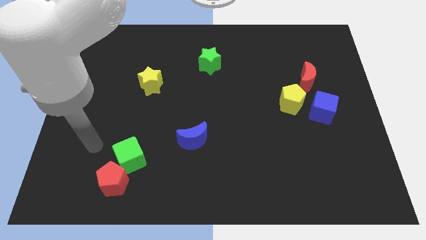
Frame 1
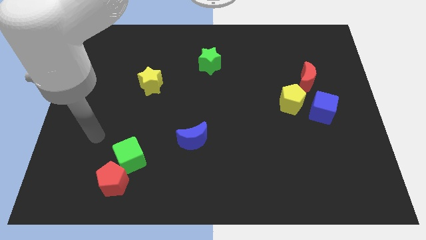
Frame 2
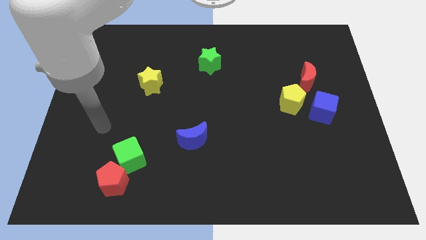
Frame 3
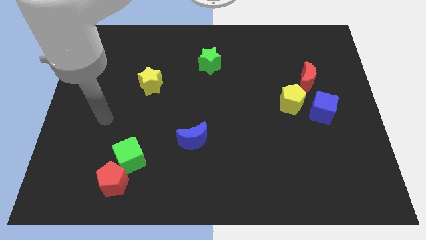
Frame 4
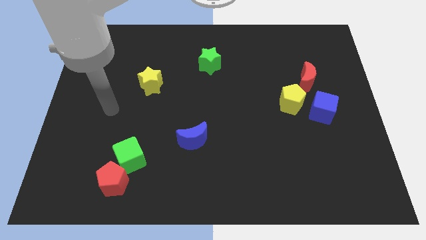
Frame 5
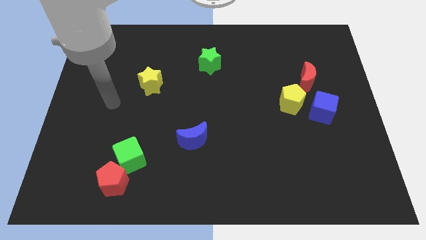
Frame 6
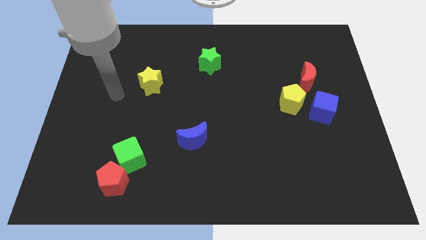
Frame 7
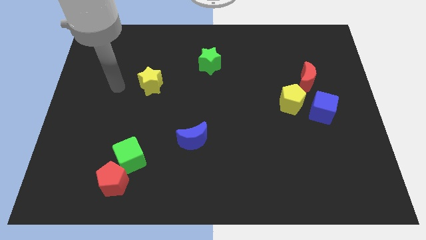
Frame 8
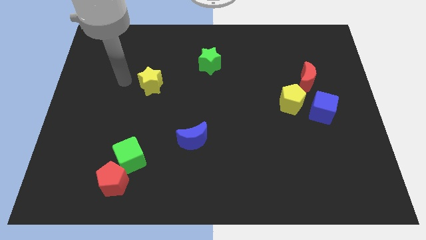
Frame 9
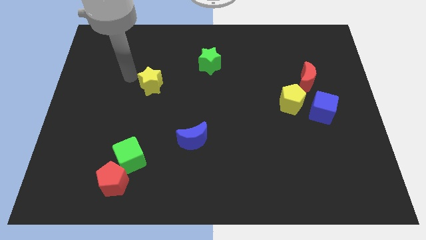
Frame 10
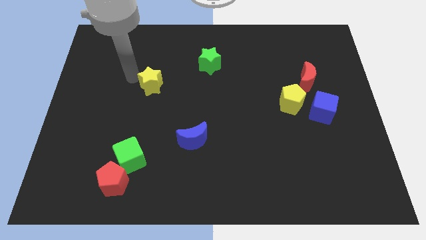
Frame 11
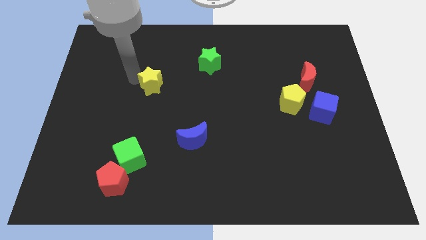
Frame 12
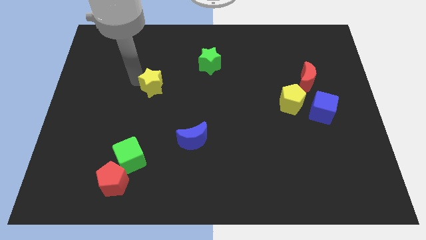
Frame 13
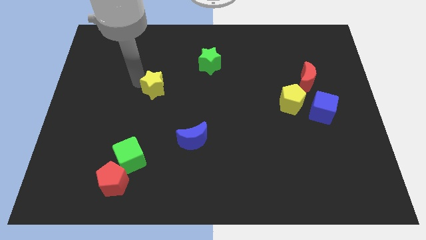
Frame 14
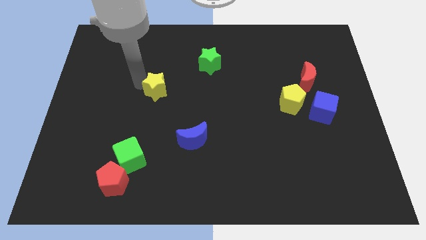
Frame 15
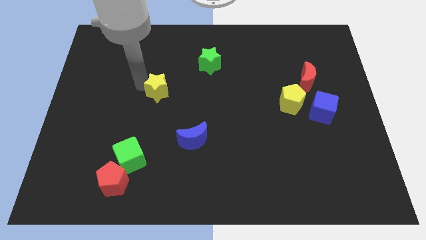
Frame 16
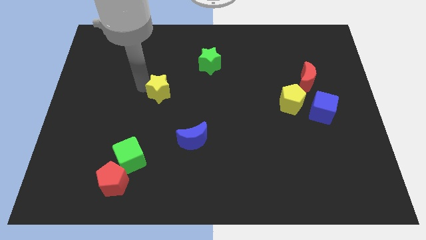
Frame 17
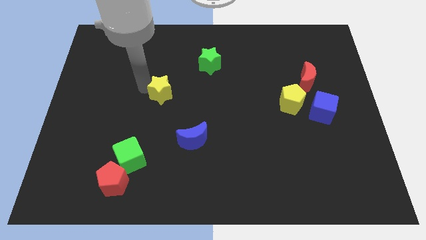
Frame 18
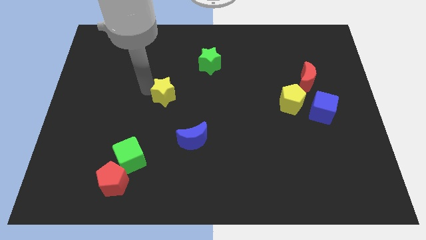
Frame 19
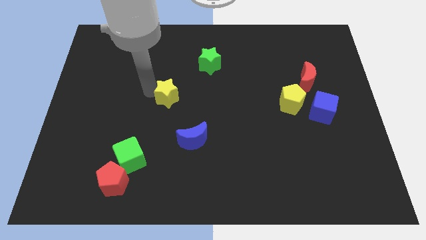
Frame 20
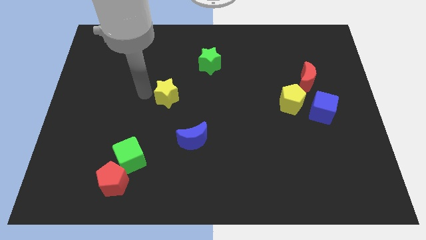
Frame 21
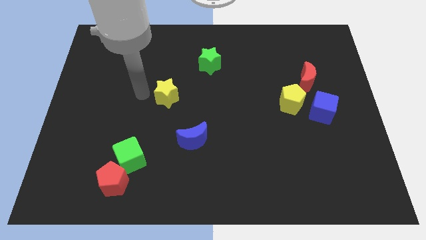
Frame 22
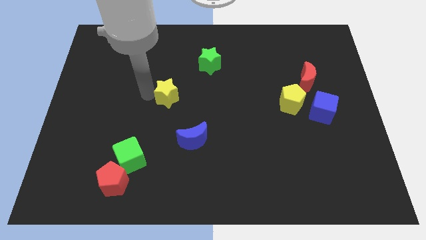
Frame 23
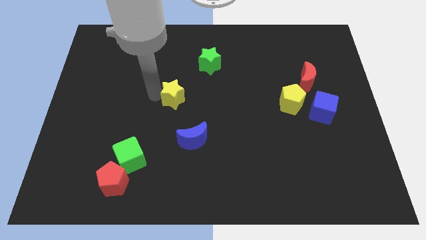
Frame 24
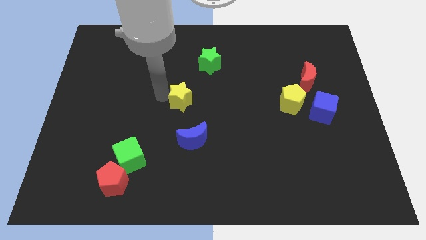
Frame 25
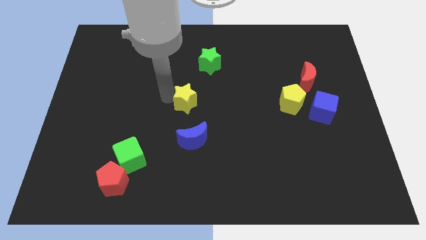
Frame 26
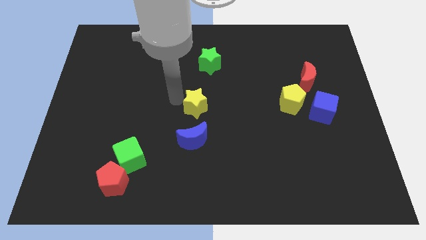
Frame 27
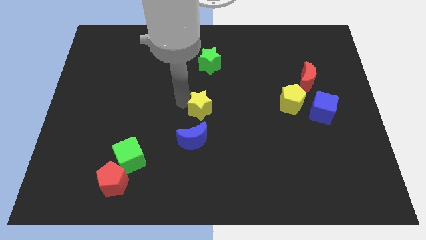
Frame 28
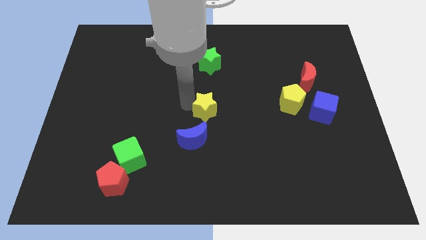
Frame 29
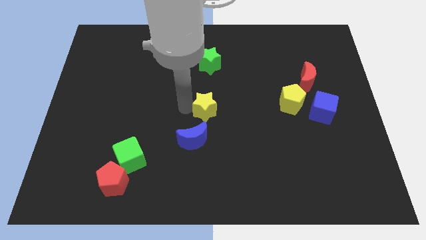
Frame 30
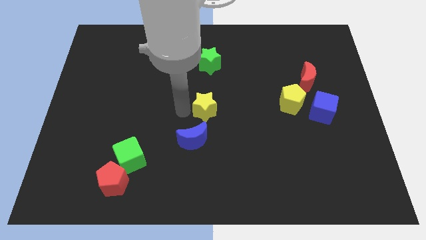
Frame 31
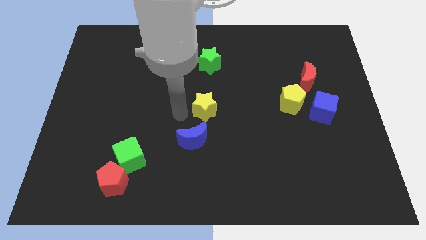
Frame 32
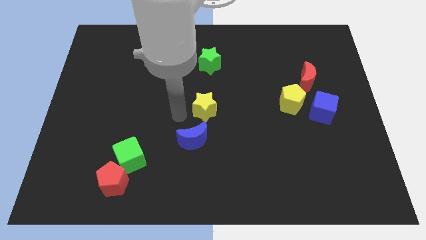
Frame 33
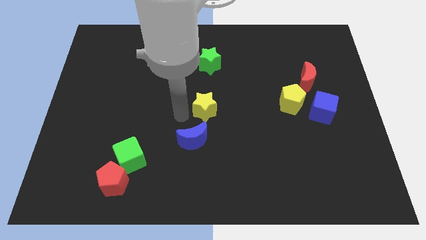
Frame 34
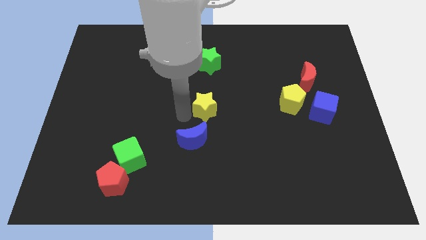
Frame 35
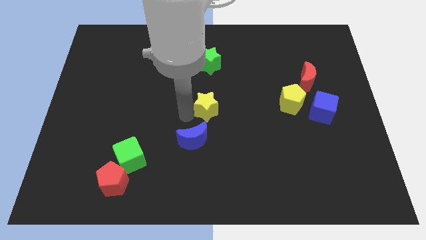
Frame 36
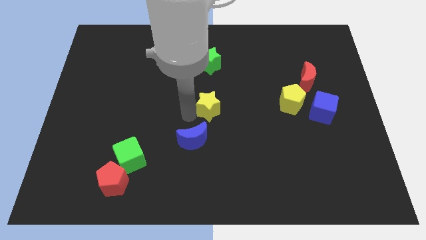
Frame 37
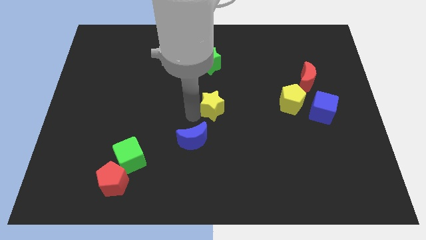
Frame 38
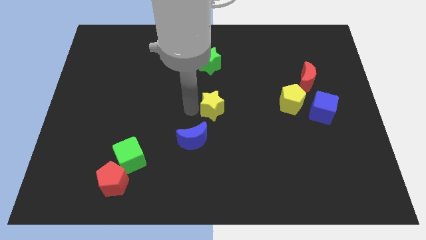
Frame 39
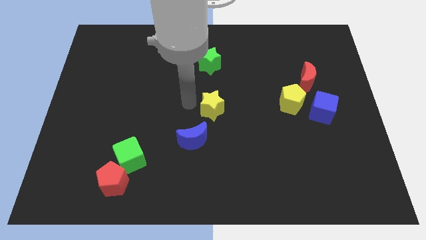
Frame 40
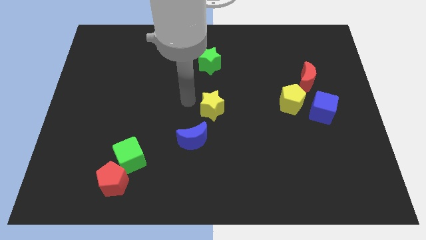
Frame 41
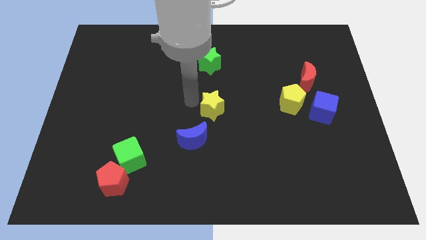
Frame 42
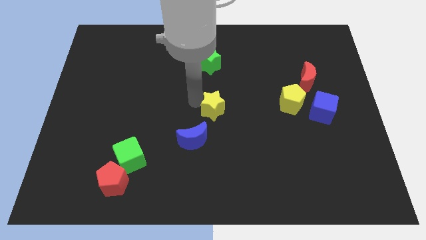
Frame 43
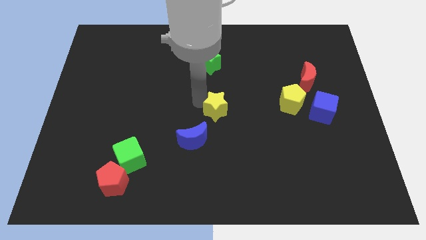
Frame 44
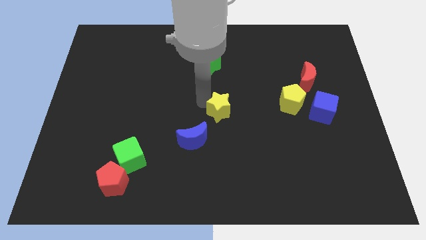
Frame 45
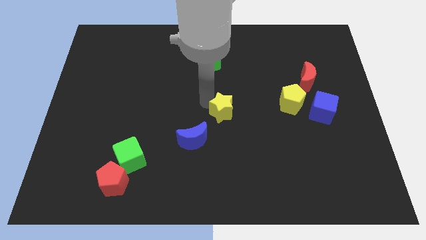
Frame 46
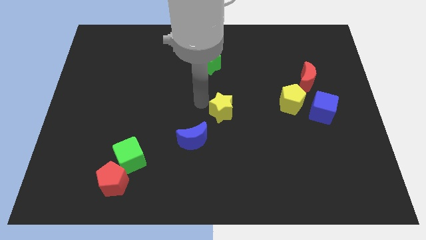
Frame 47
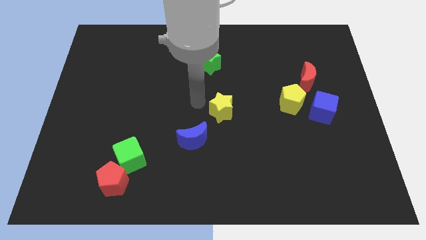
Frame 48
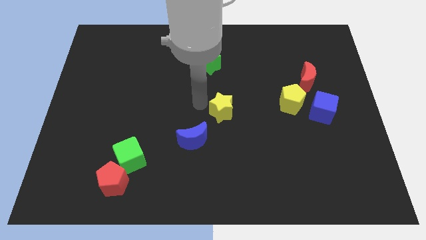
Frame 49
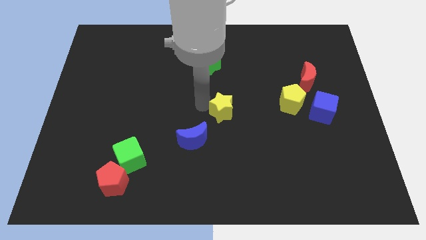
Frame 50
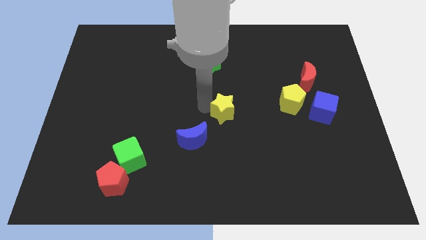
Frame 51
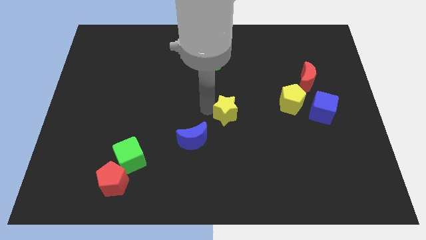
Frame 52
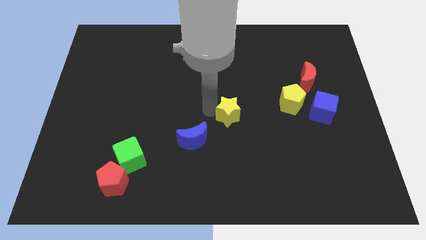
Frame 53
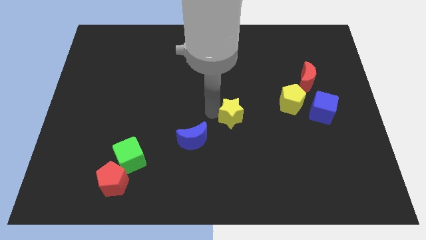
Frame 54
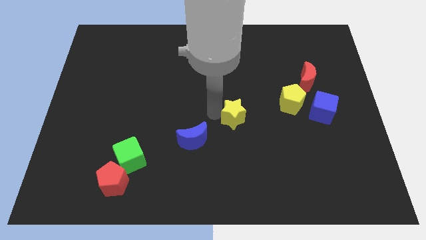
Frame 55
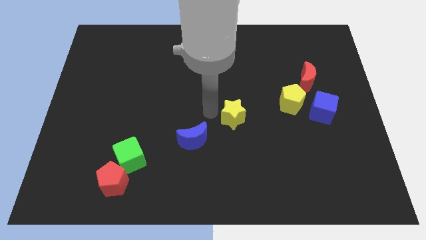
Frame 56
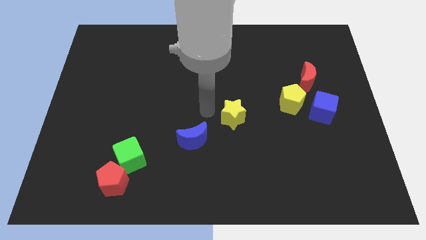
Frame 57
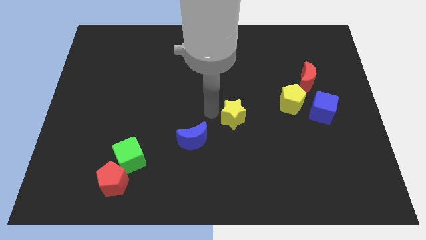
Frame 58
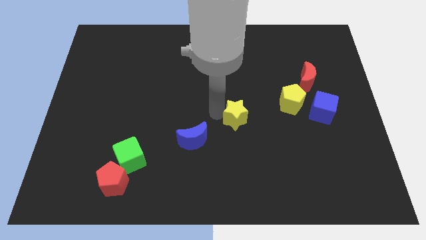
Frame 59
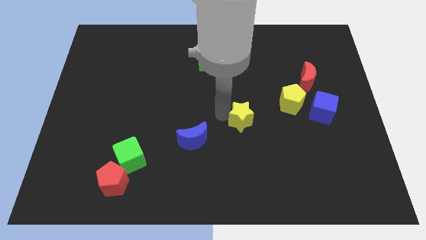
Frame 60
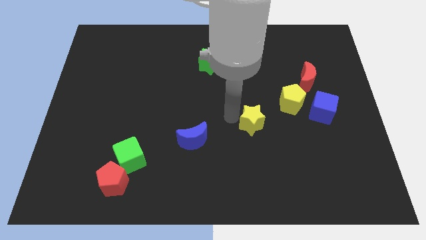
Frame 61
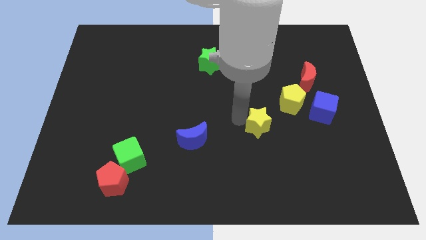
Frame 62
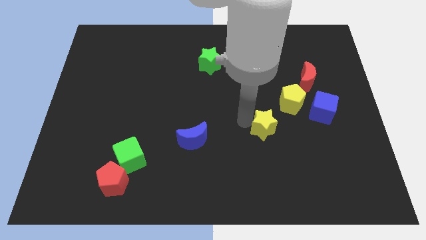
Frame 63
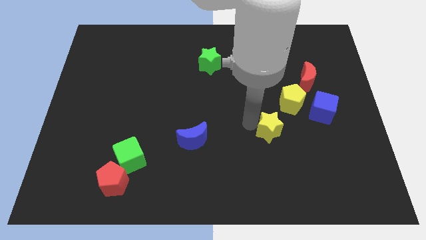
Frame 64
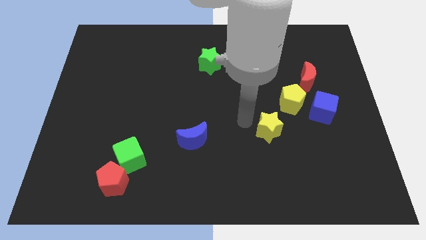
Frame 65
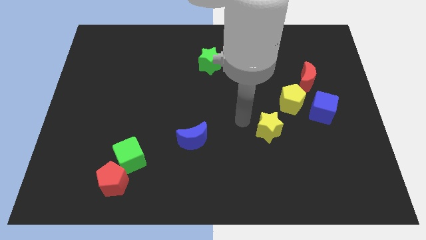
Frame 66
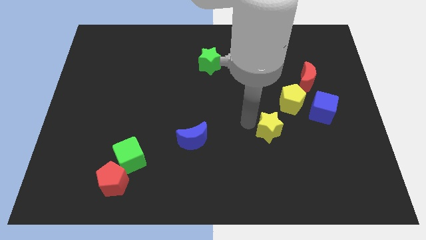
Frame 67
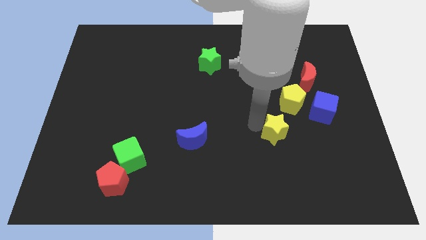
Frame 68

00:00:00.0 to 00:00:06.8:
put the yellow star below the yellow pentagon
